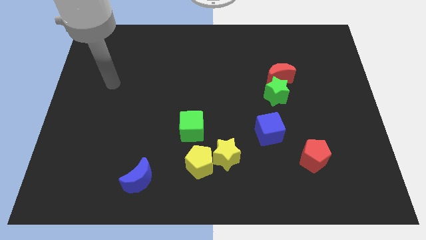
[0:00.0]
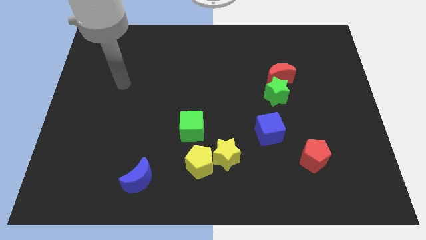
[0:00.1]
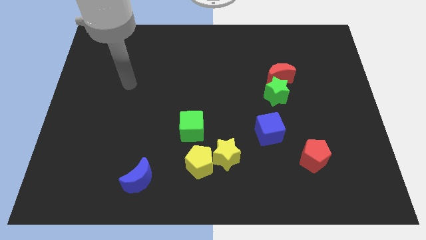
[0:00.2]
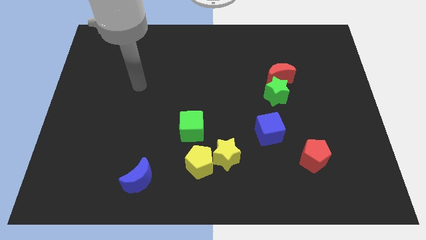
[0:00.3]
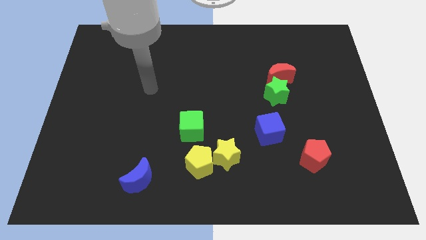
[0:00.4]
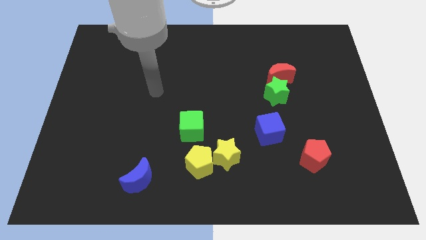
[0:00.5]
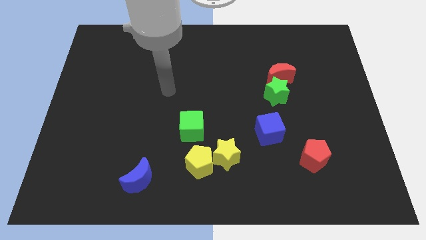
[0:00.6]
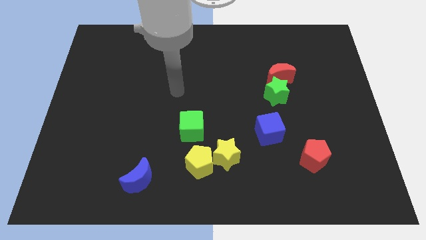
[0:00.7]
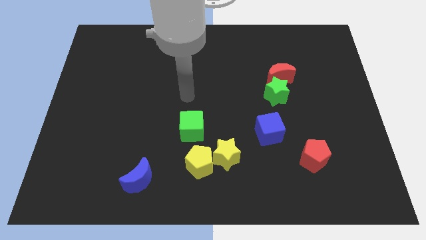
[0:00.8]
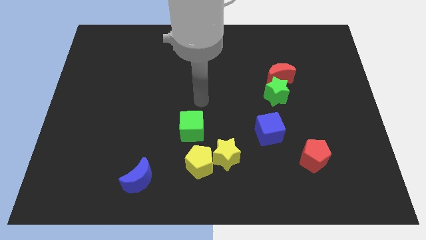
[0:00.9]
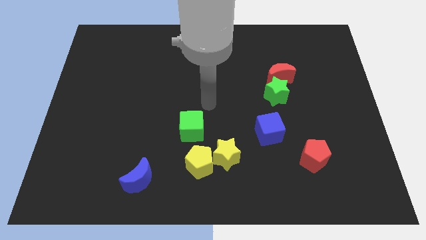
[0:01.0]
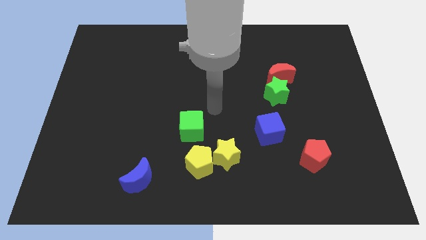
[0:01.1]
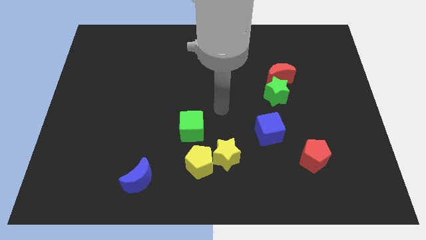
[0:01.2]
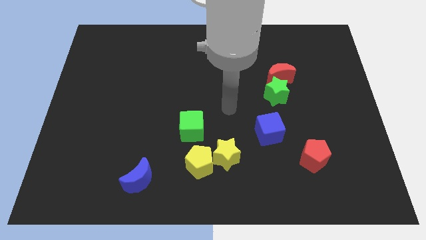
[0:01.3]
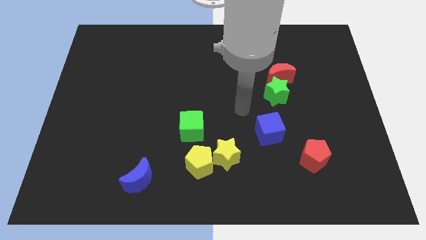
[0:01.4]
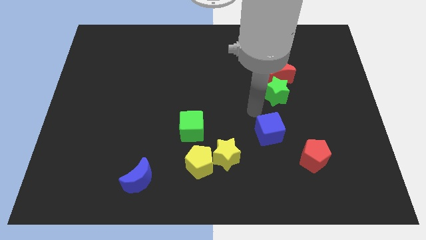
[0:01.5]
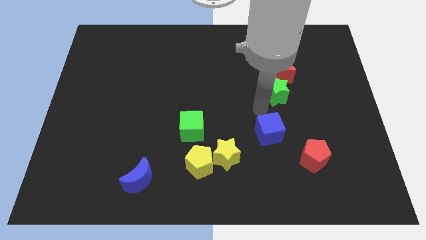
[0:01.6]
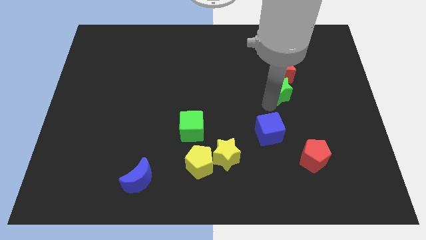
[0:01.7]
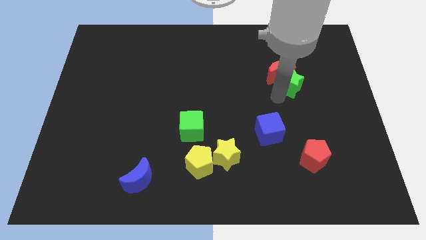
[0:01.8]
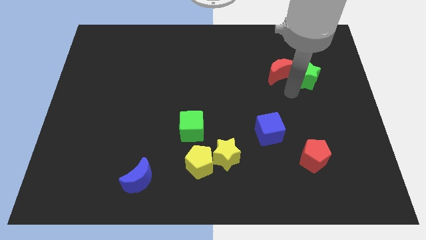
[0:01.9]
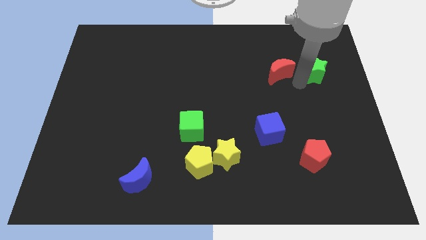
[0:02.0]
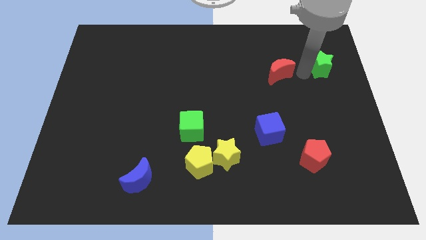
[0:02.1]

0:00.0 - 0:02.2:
separate the red moon from the green star

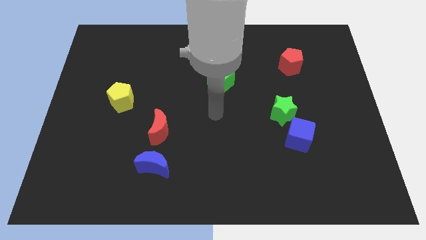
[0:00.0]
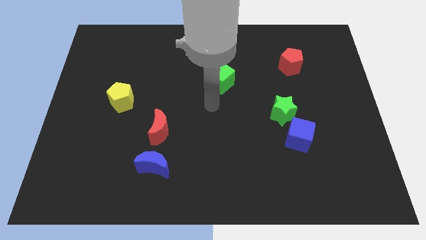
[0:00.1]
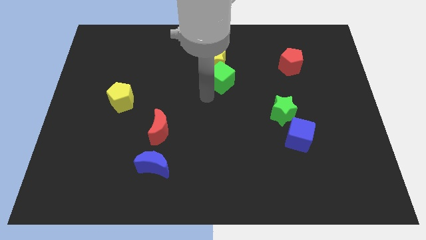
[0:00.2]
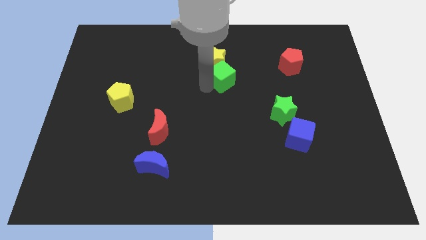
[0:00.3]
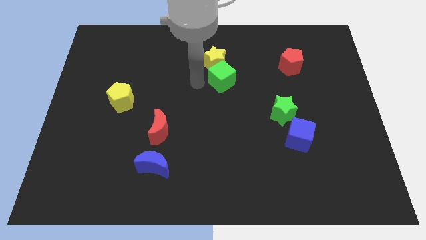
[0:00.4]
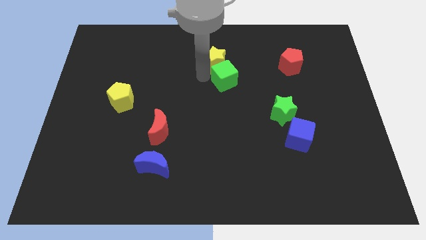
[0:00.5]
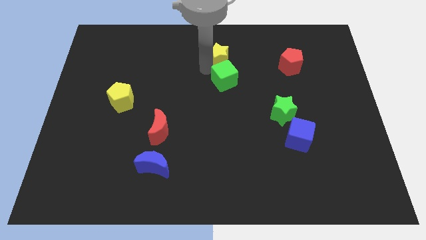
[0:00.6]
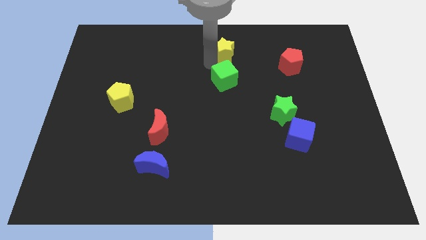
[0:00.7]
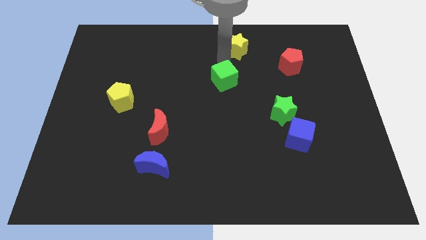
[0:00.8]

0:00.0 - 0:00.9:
move the green cube away from the yellow star

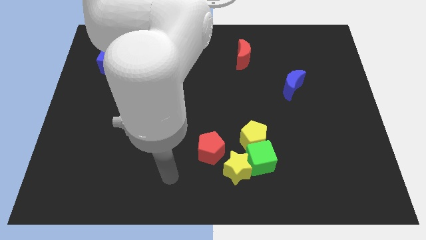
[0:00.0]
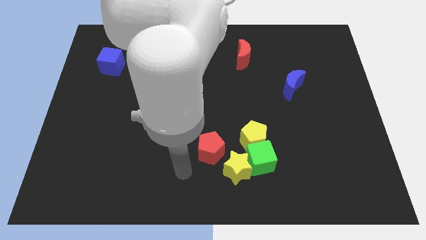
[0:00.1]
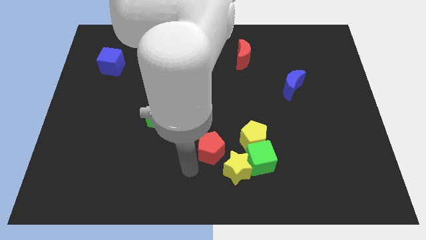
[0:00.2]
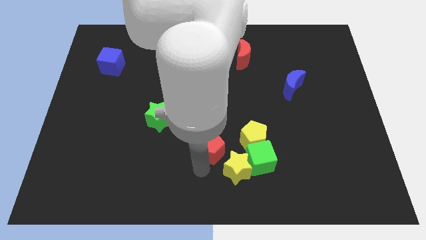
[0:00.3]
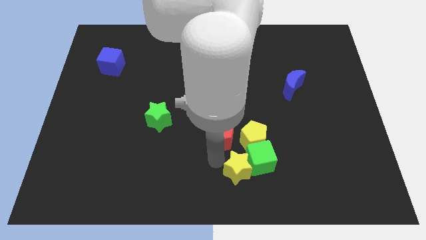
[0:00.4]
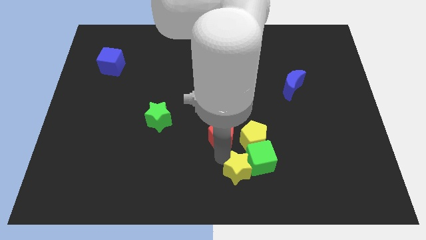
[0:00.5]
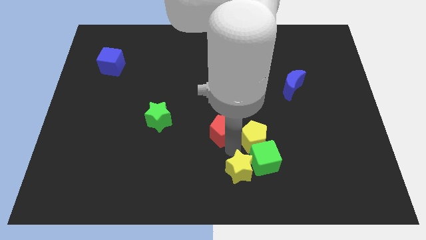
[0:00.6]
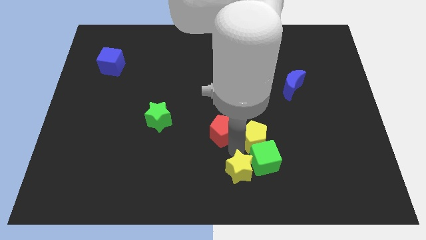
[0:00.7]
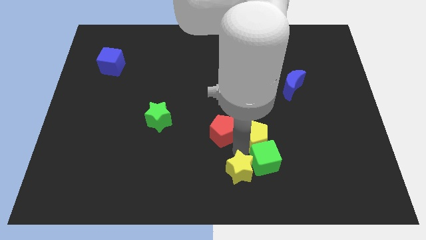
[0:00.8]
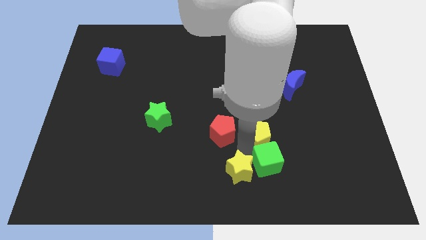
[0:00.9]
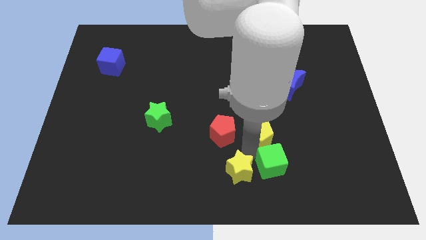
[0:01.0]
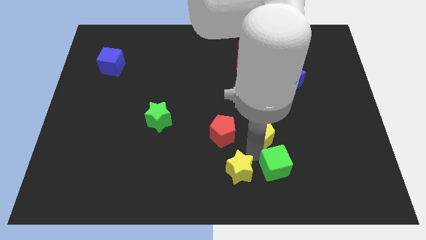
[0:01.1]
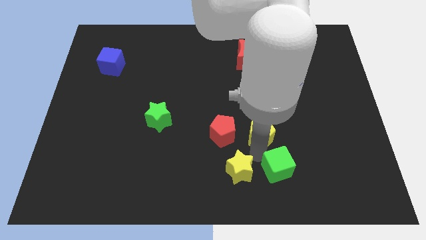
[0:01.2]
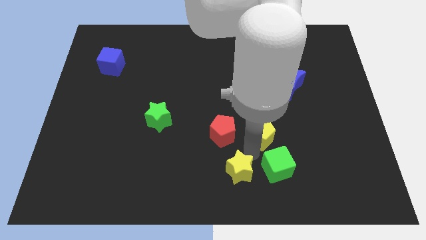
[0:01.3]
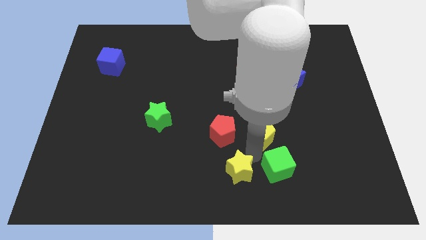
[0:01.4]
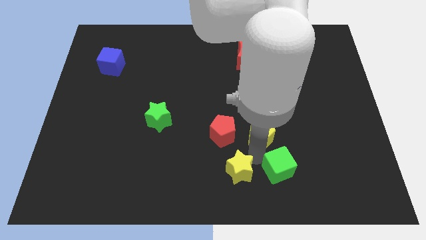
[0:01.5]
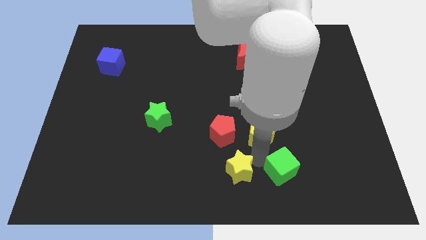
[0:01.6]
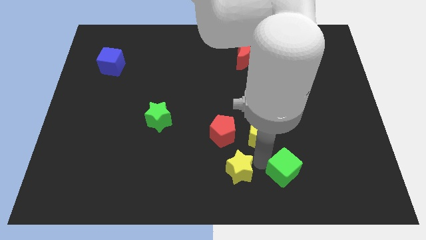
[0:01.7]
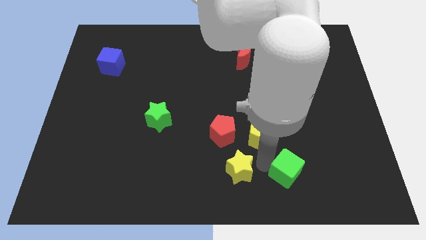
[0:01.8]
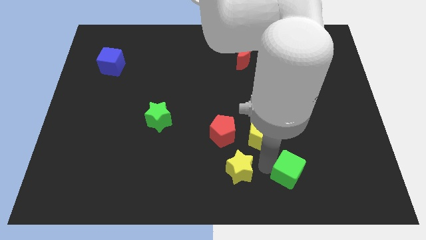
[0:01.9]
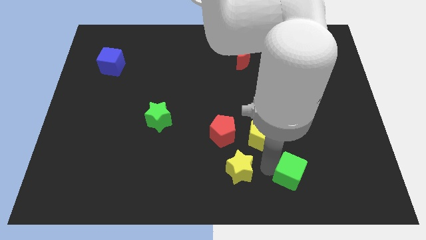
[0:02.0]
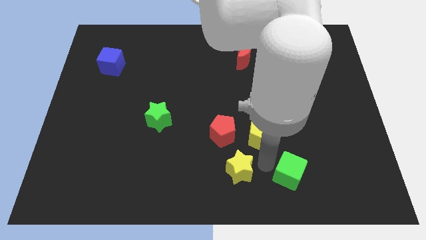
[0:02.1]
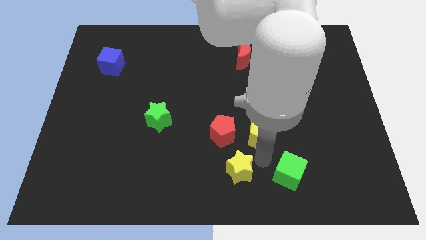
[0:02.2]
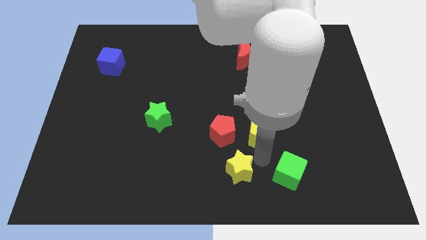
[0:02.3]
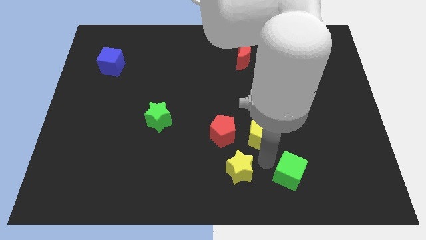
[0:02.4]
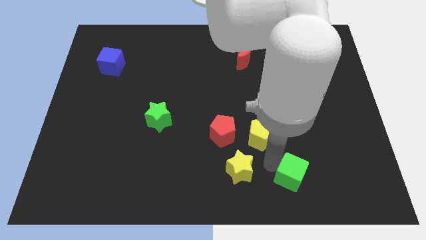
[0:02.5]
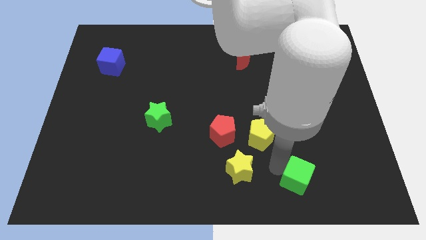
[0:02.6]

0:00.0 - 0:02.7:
pull the green cube apart from the yellow star and yellow pentagon

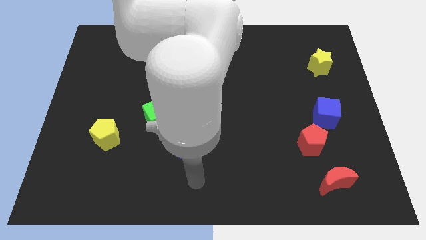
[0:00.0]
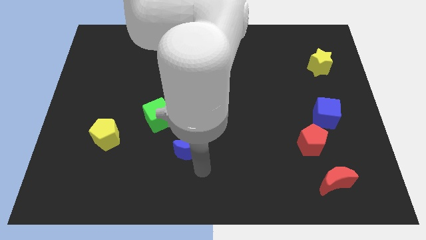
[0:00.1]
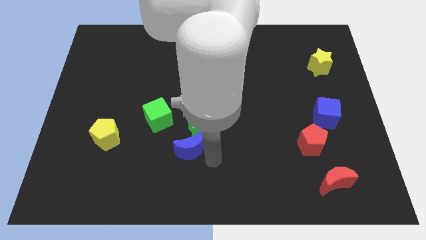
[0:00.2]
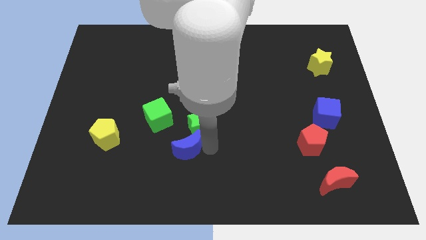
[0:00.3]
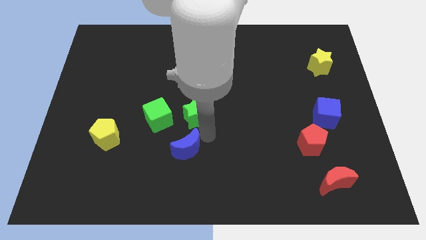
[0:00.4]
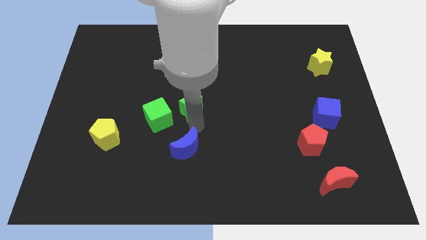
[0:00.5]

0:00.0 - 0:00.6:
move the blue moon away from the green star

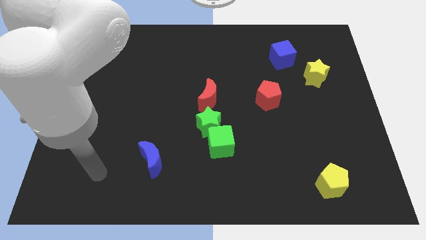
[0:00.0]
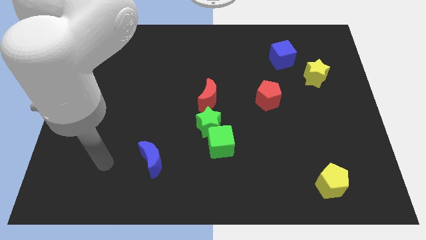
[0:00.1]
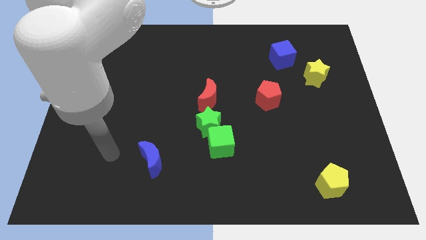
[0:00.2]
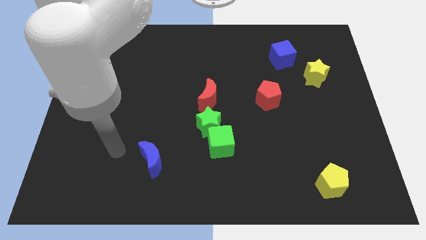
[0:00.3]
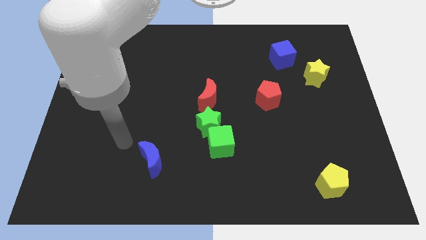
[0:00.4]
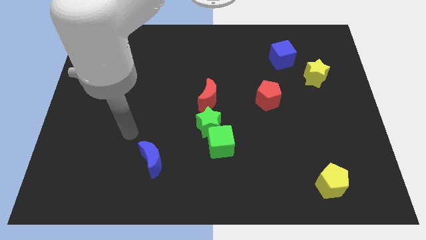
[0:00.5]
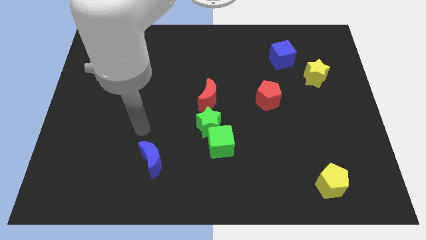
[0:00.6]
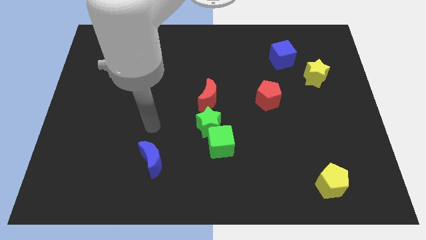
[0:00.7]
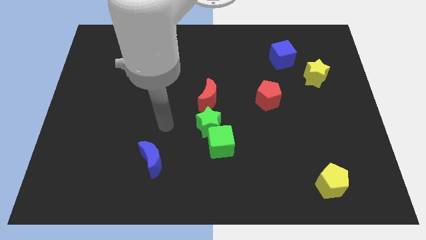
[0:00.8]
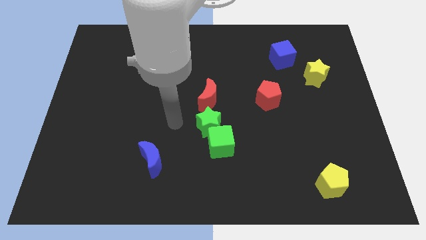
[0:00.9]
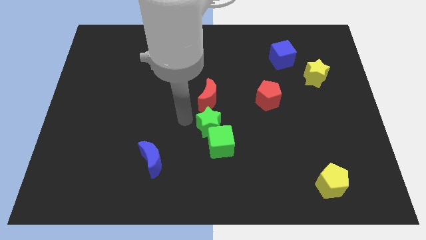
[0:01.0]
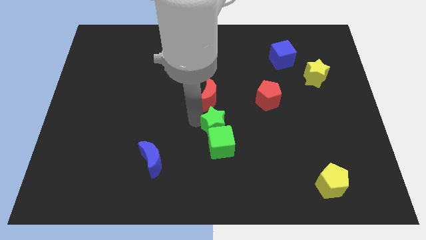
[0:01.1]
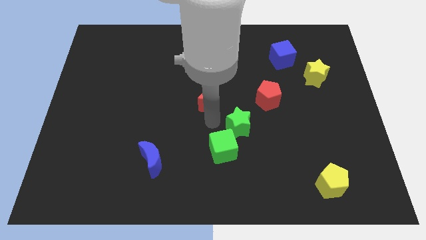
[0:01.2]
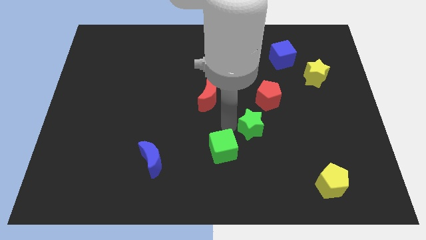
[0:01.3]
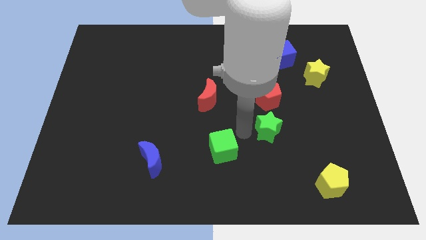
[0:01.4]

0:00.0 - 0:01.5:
separate the green cube from the green star

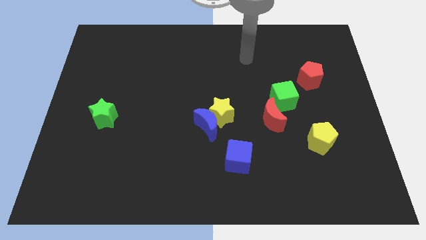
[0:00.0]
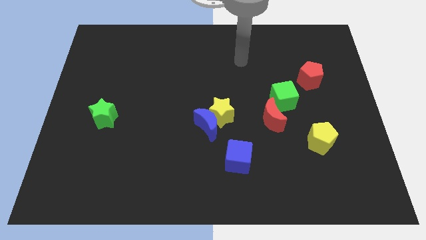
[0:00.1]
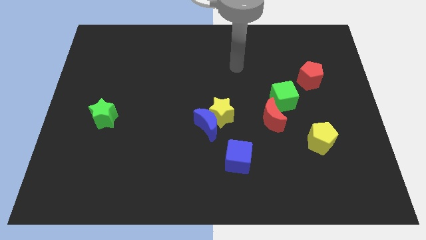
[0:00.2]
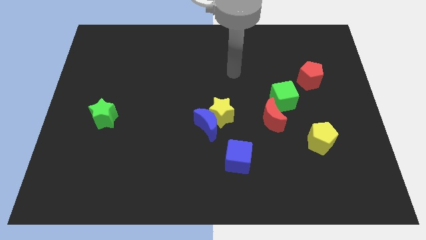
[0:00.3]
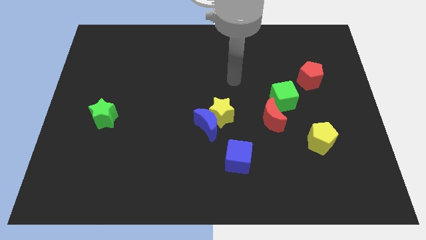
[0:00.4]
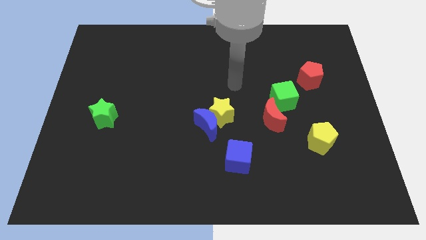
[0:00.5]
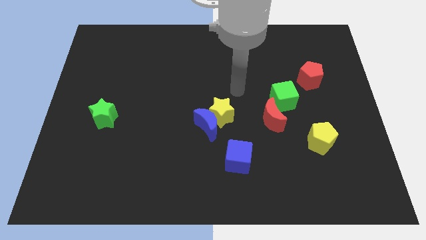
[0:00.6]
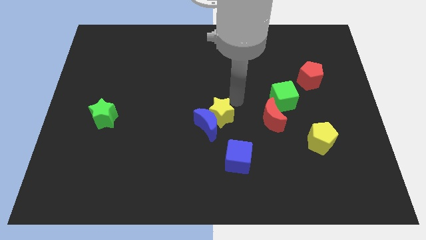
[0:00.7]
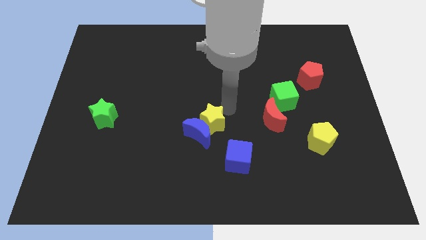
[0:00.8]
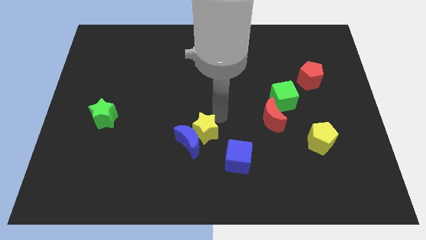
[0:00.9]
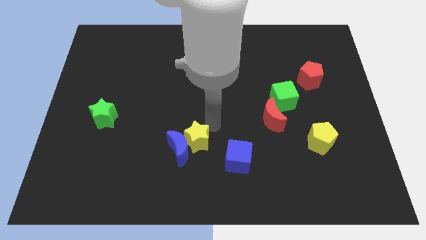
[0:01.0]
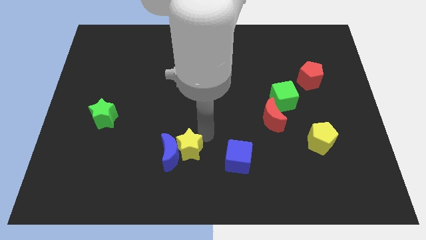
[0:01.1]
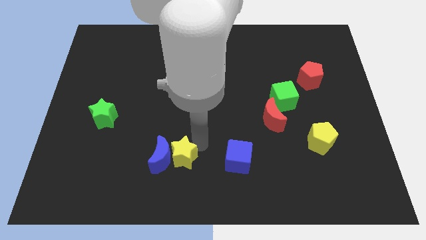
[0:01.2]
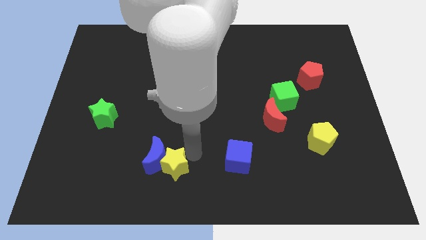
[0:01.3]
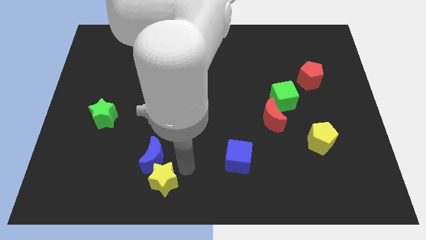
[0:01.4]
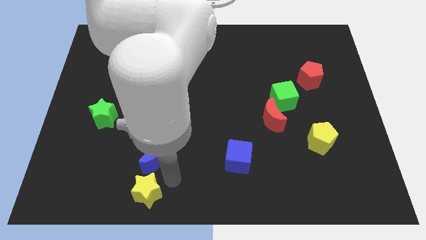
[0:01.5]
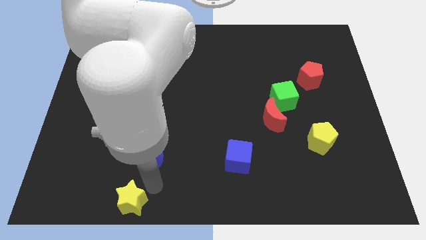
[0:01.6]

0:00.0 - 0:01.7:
separate the blue moon from the yellow star
